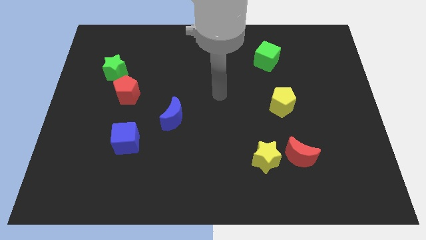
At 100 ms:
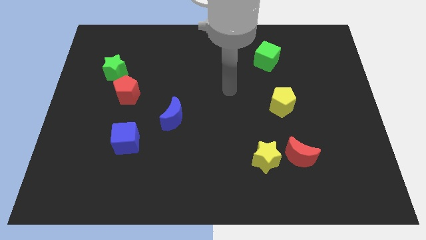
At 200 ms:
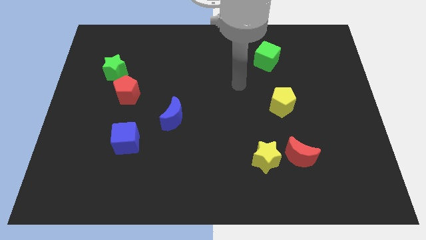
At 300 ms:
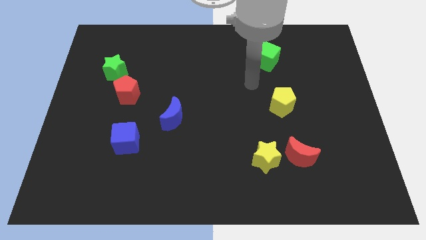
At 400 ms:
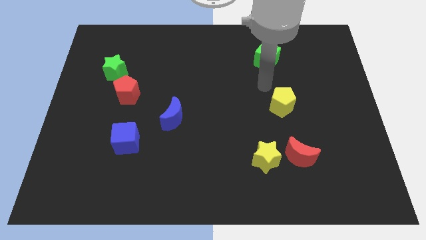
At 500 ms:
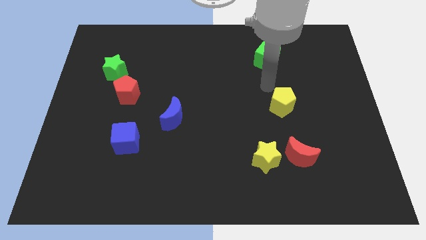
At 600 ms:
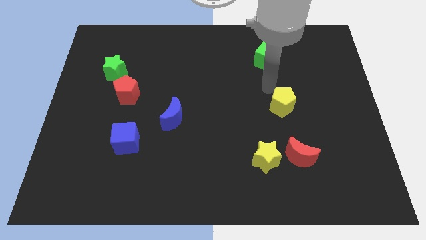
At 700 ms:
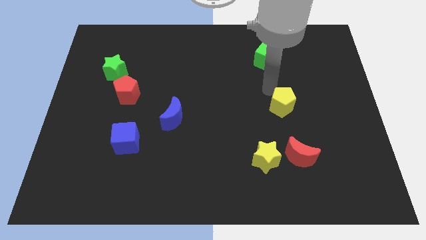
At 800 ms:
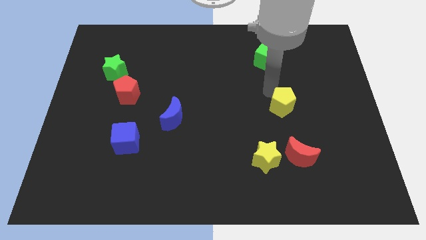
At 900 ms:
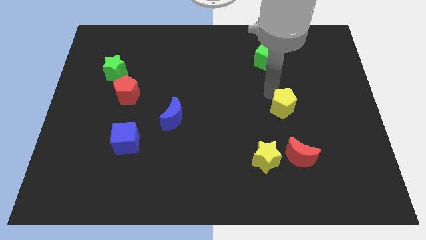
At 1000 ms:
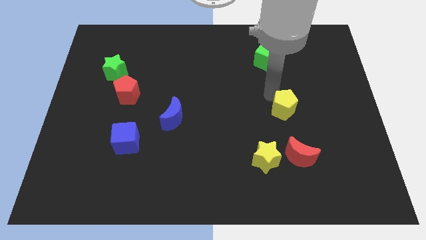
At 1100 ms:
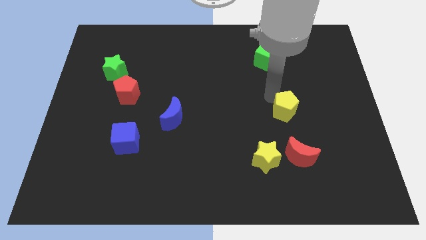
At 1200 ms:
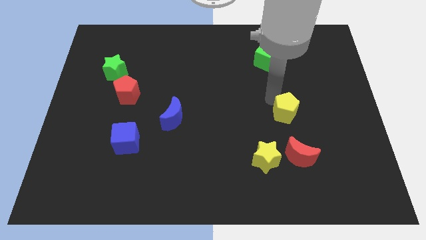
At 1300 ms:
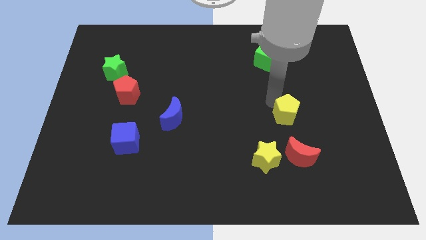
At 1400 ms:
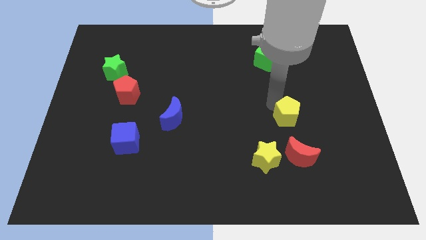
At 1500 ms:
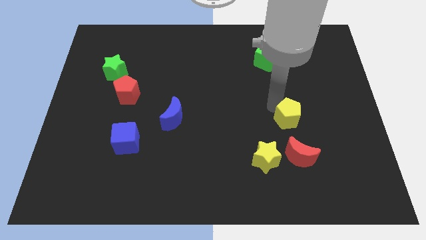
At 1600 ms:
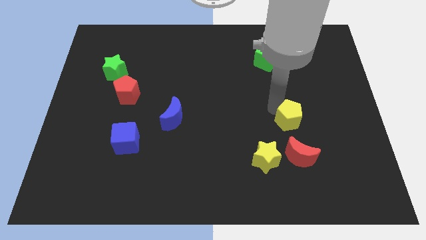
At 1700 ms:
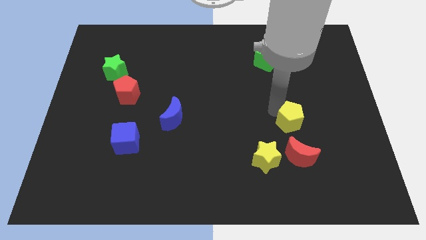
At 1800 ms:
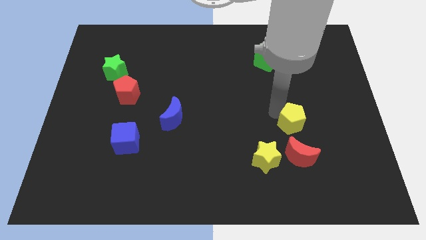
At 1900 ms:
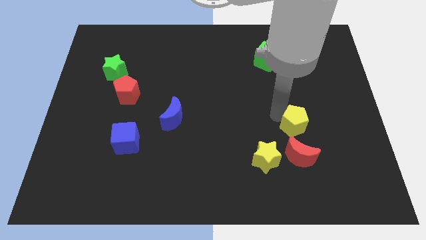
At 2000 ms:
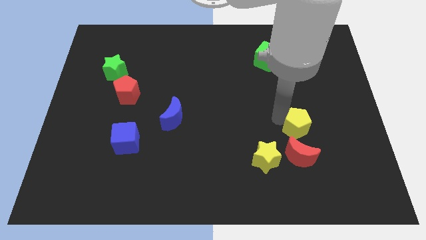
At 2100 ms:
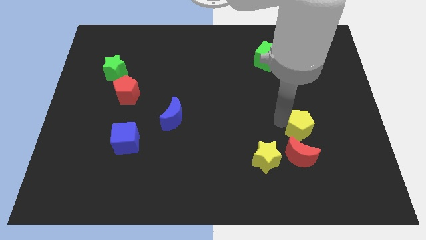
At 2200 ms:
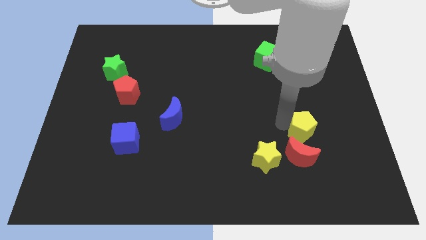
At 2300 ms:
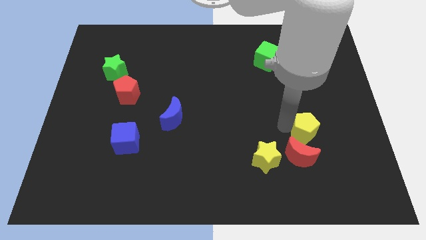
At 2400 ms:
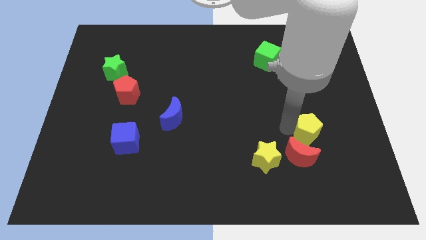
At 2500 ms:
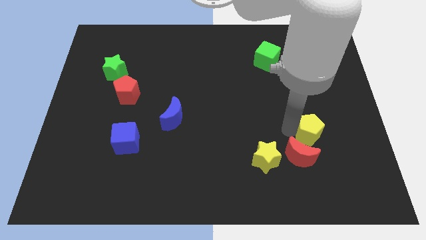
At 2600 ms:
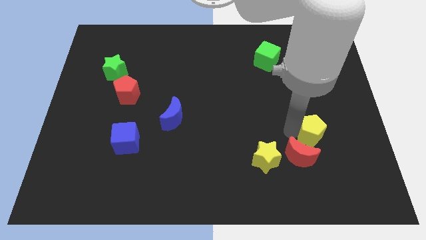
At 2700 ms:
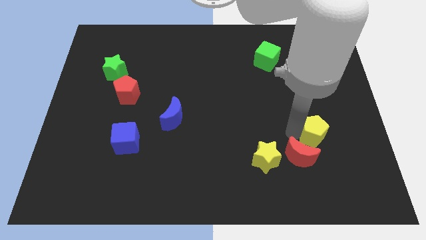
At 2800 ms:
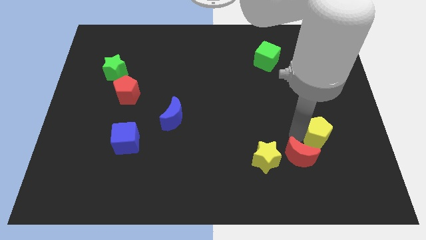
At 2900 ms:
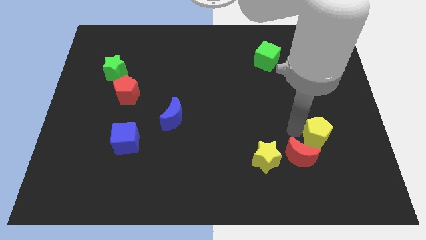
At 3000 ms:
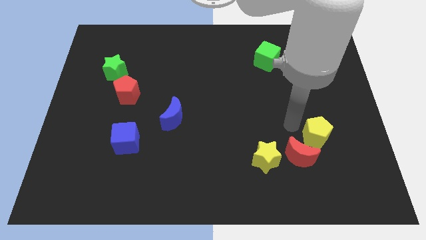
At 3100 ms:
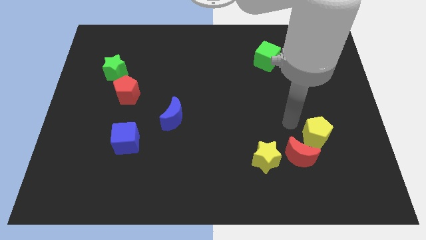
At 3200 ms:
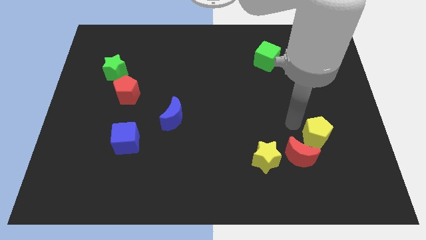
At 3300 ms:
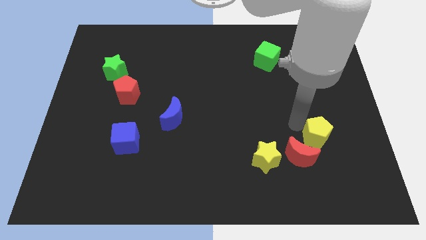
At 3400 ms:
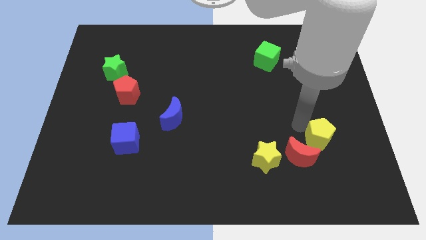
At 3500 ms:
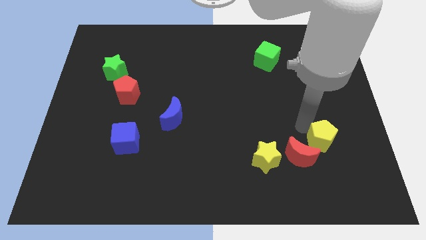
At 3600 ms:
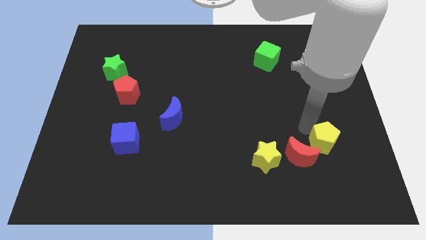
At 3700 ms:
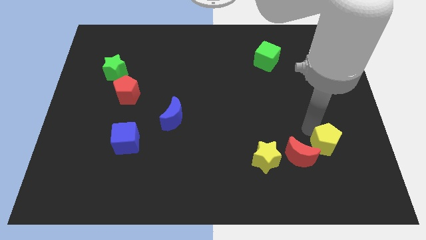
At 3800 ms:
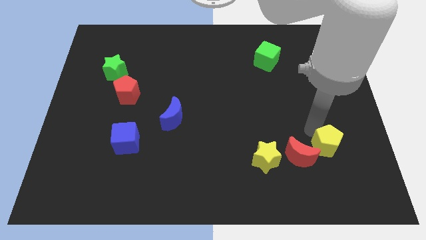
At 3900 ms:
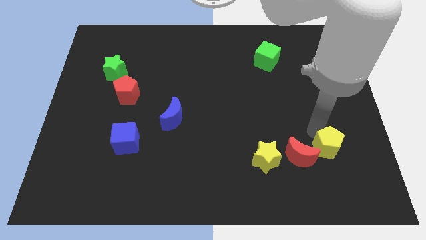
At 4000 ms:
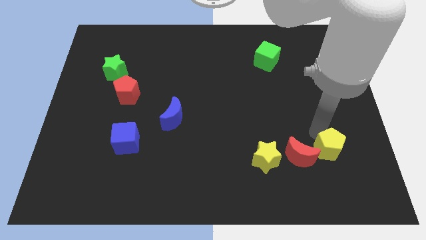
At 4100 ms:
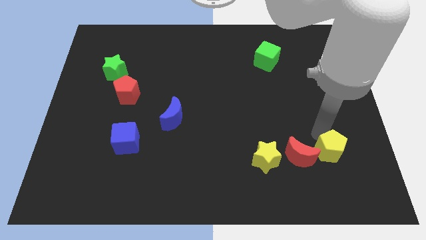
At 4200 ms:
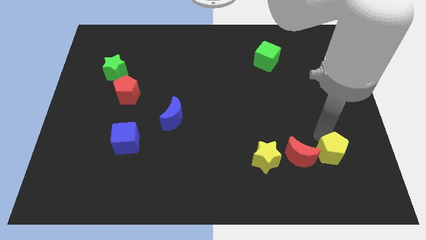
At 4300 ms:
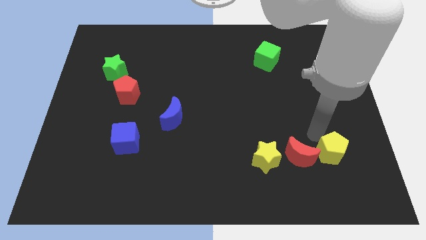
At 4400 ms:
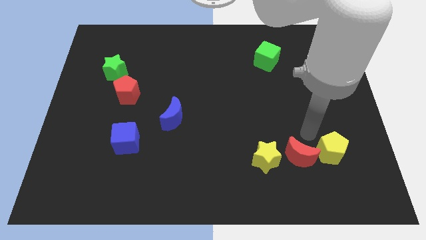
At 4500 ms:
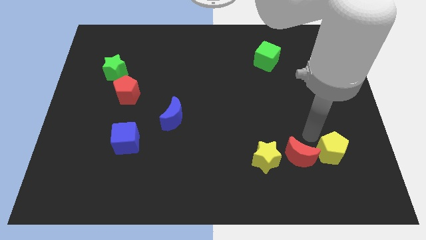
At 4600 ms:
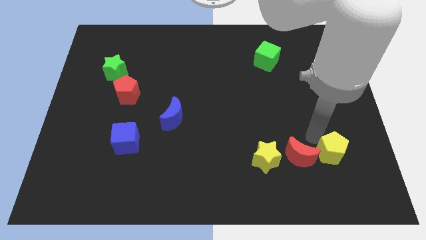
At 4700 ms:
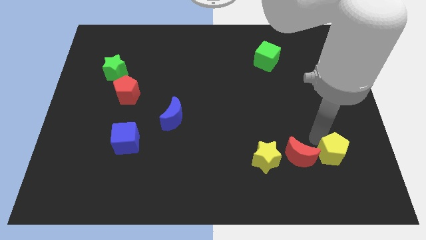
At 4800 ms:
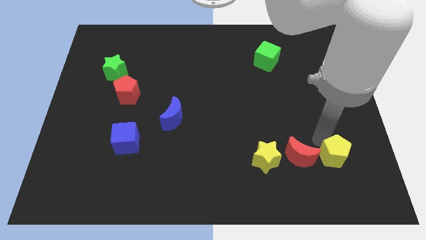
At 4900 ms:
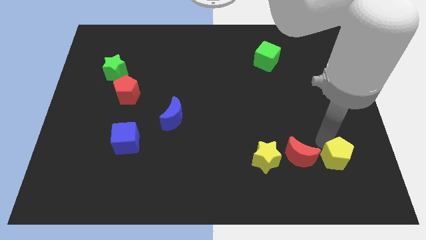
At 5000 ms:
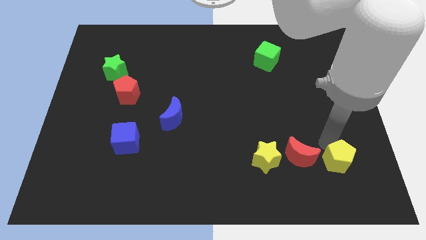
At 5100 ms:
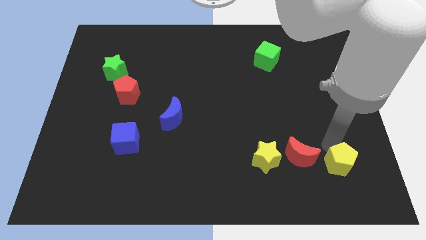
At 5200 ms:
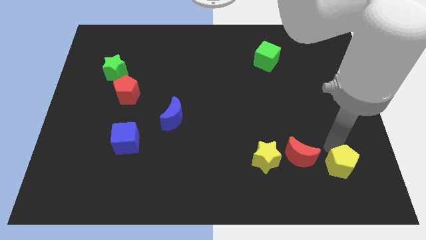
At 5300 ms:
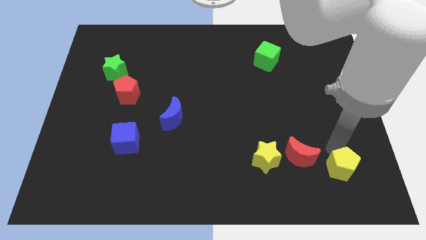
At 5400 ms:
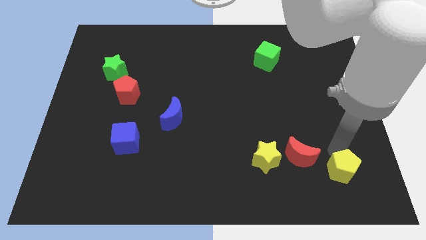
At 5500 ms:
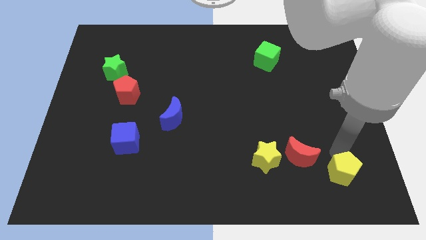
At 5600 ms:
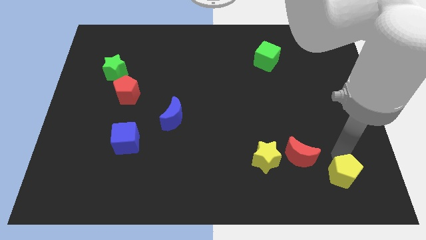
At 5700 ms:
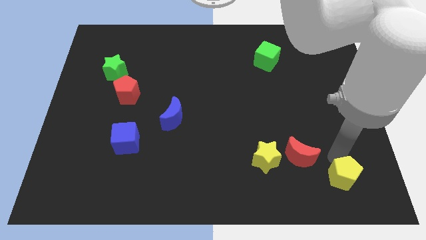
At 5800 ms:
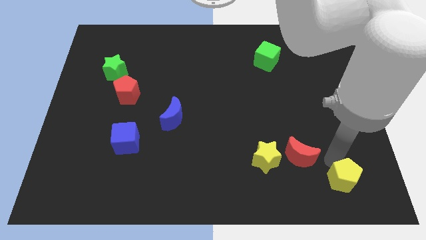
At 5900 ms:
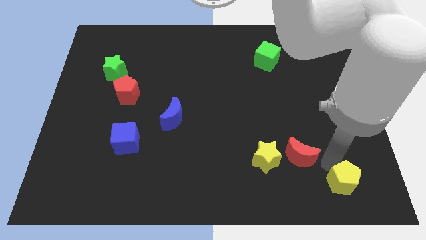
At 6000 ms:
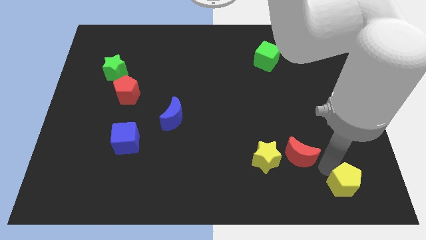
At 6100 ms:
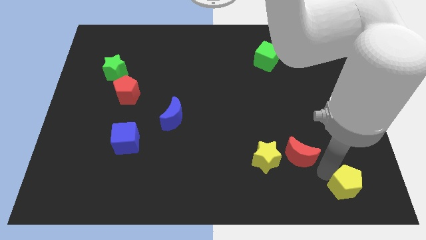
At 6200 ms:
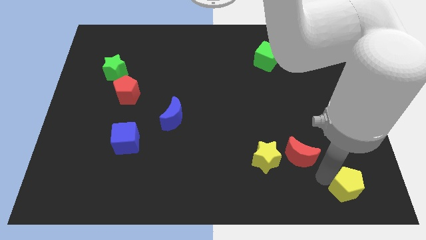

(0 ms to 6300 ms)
move the yellow pentagon to the bottom right of the board

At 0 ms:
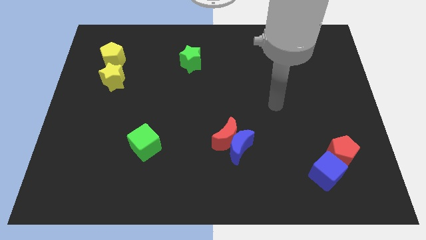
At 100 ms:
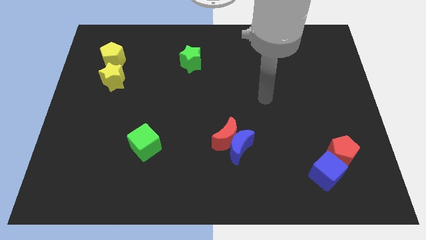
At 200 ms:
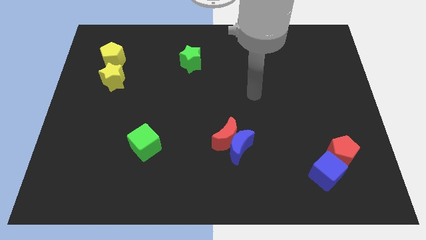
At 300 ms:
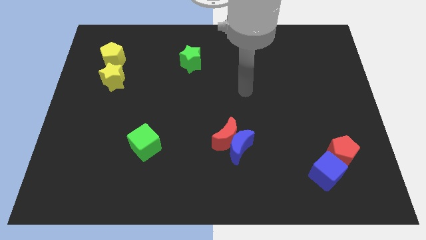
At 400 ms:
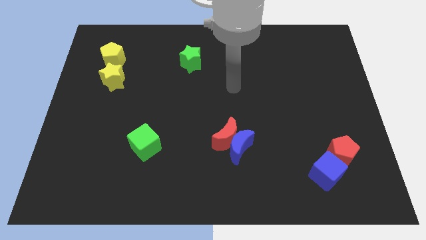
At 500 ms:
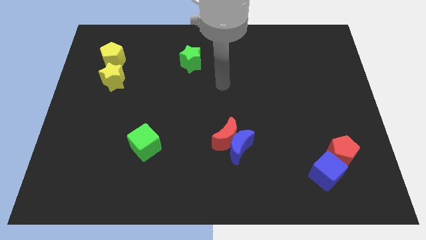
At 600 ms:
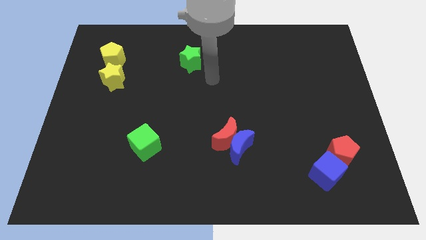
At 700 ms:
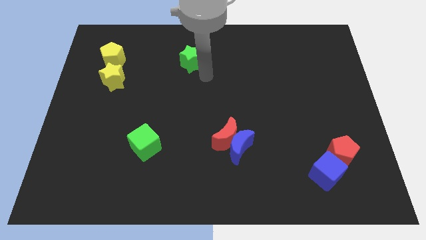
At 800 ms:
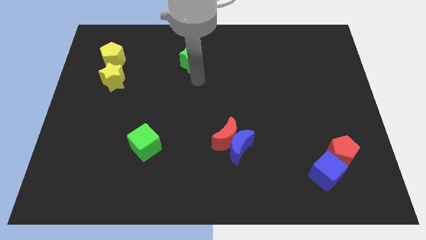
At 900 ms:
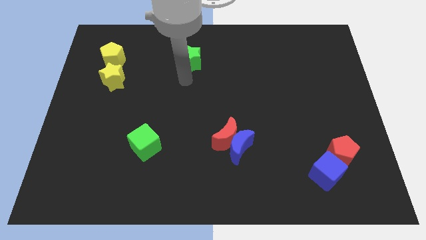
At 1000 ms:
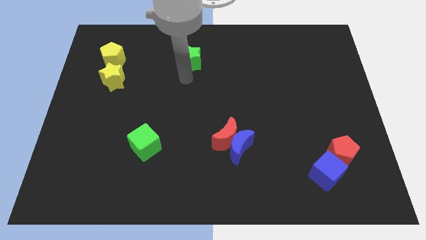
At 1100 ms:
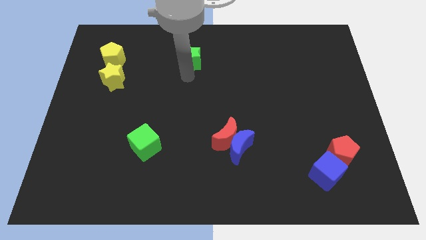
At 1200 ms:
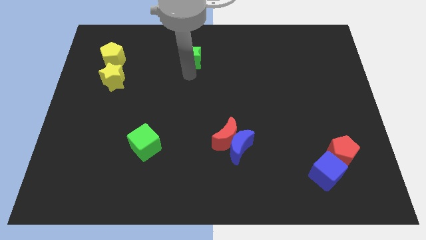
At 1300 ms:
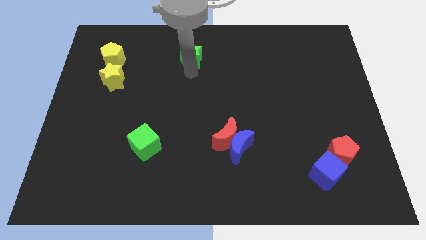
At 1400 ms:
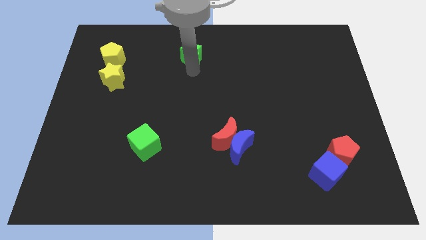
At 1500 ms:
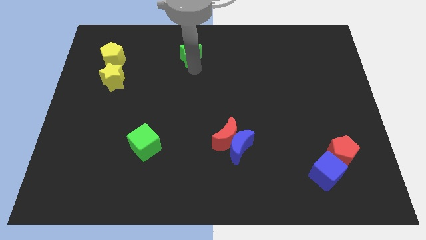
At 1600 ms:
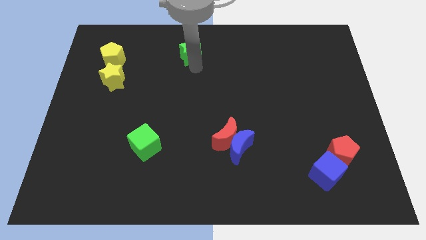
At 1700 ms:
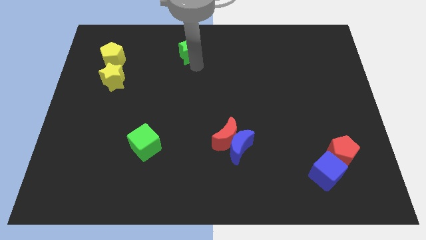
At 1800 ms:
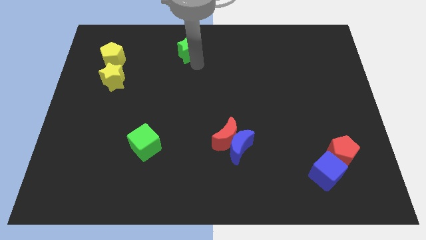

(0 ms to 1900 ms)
move the green star to the top side
